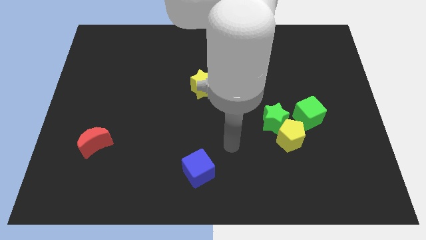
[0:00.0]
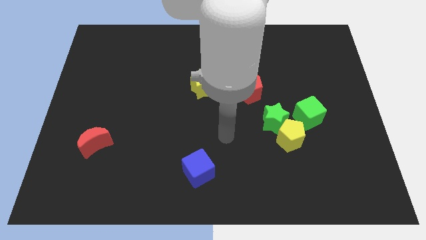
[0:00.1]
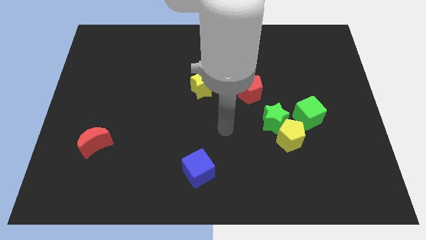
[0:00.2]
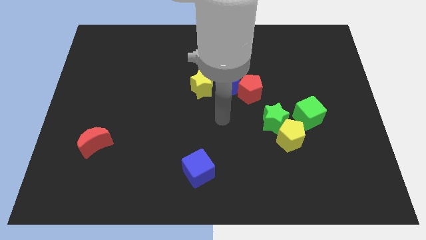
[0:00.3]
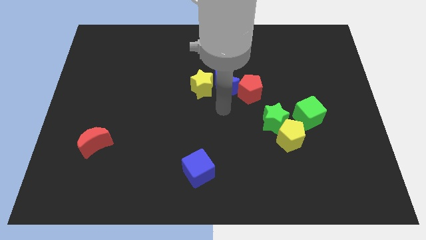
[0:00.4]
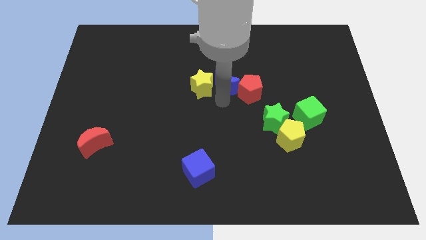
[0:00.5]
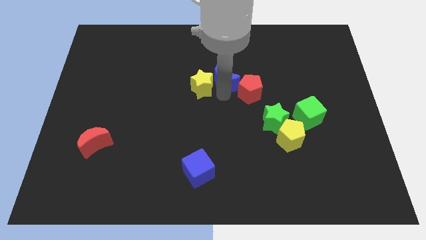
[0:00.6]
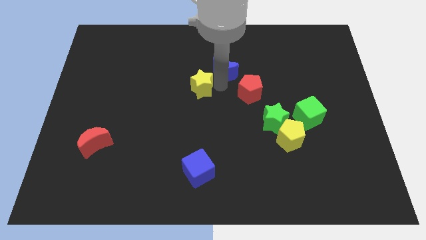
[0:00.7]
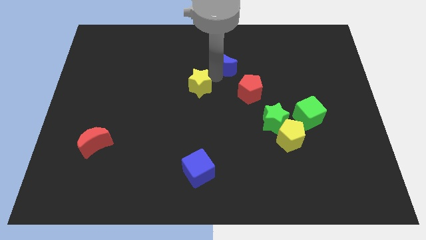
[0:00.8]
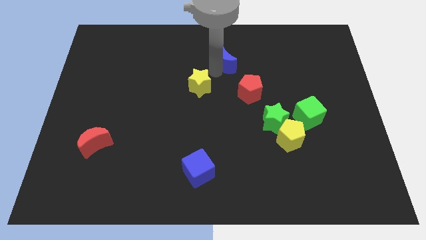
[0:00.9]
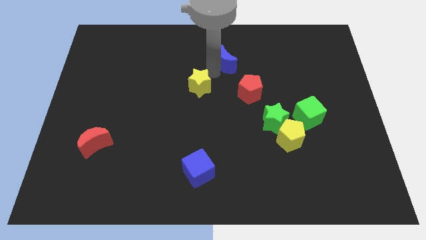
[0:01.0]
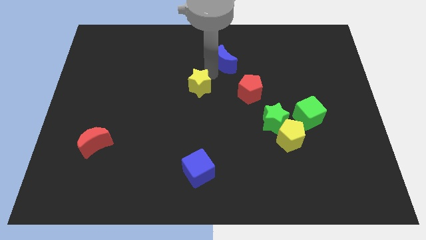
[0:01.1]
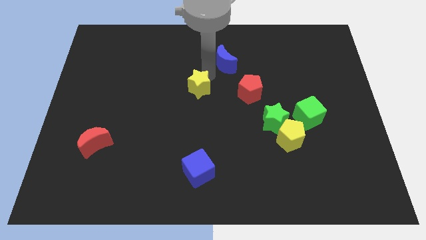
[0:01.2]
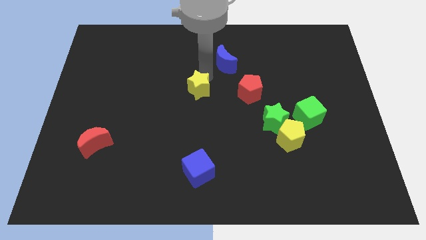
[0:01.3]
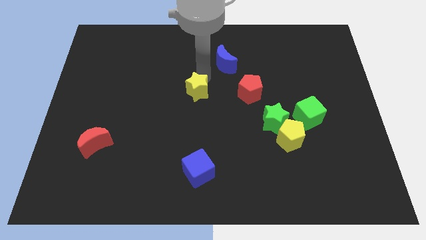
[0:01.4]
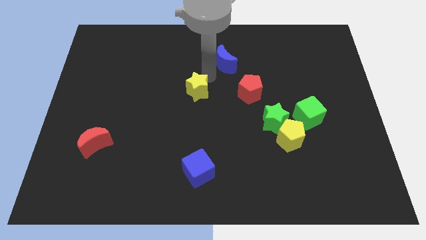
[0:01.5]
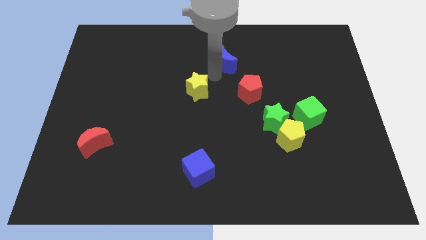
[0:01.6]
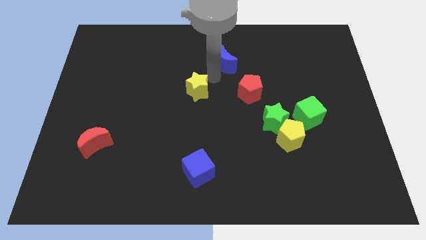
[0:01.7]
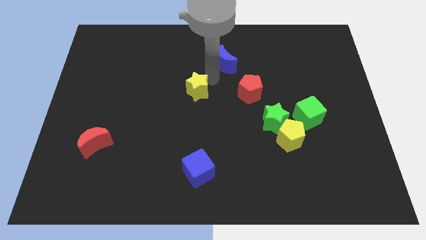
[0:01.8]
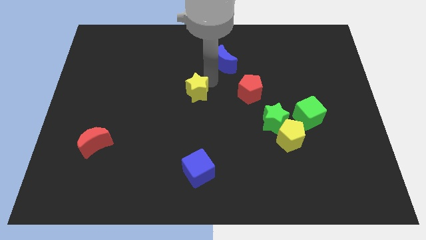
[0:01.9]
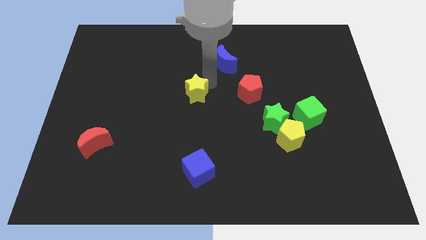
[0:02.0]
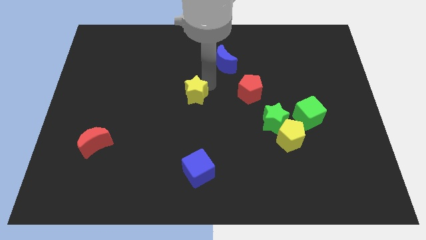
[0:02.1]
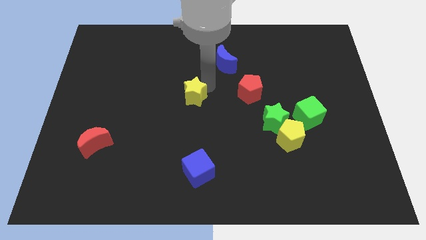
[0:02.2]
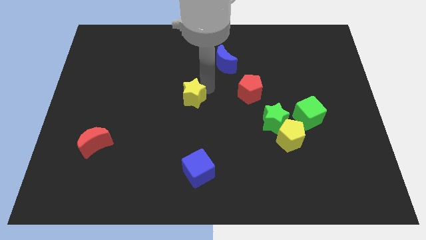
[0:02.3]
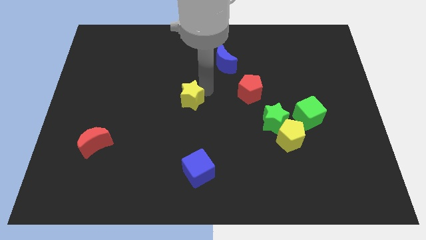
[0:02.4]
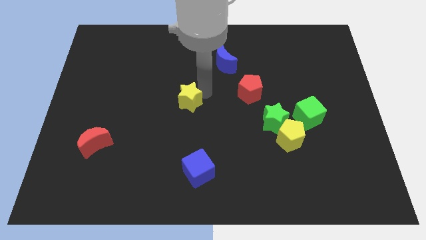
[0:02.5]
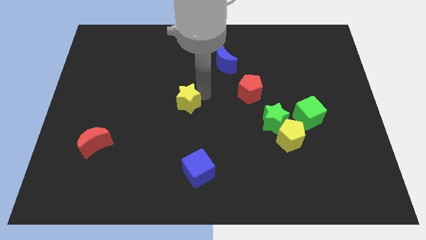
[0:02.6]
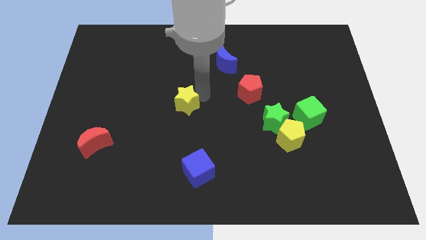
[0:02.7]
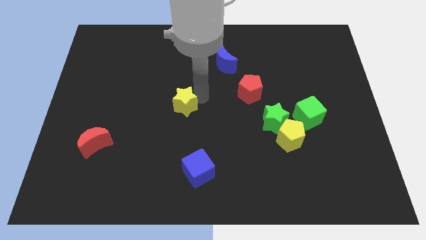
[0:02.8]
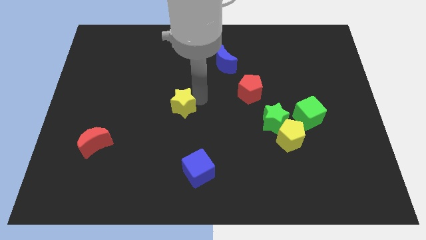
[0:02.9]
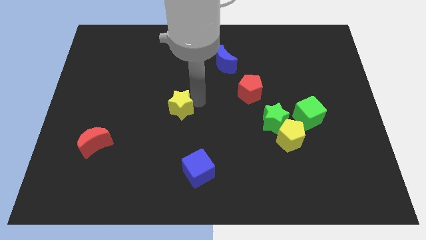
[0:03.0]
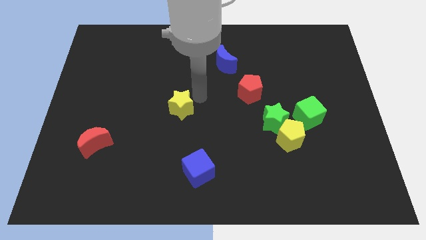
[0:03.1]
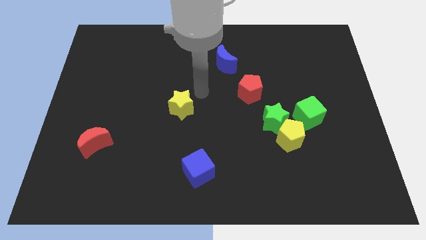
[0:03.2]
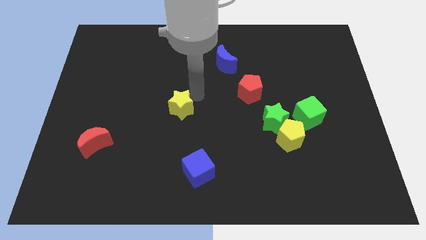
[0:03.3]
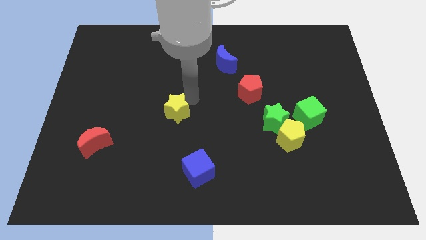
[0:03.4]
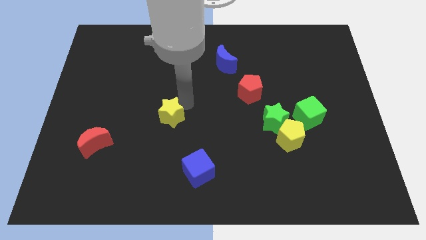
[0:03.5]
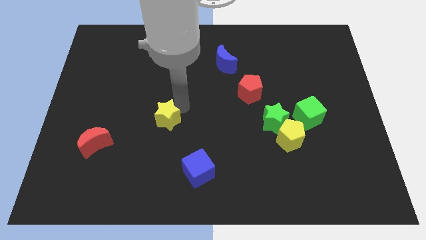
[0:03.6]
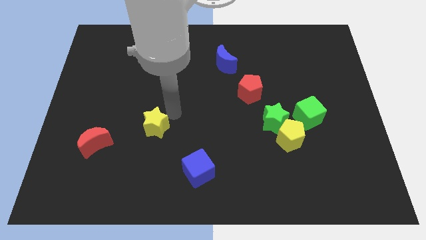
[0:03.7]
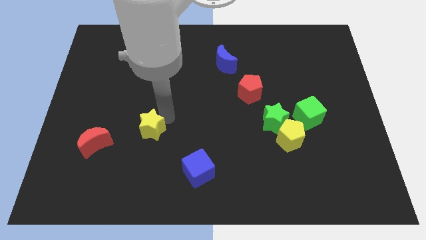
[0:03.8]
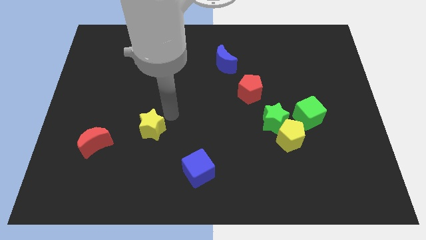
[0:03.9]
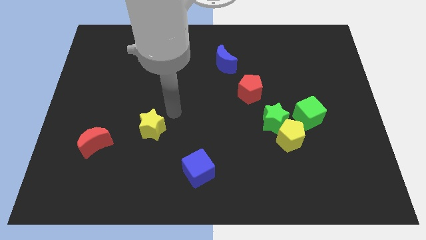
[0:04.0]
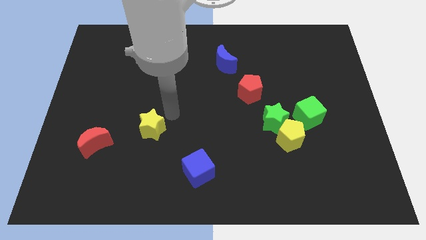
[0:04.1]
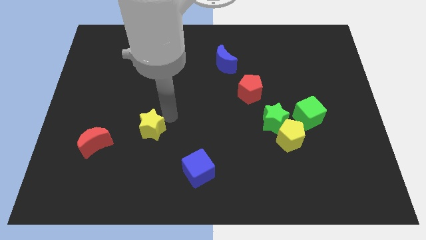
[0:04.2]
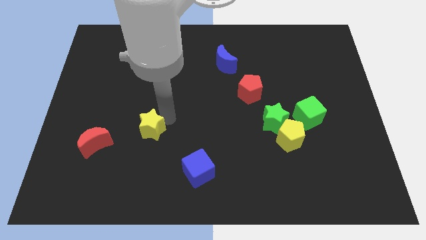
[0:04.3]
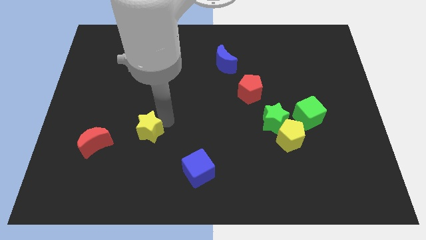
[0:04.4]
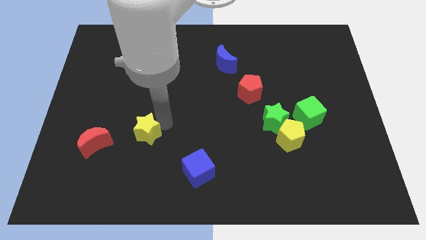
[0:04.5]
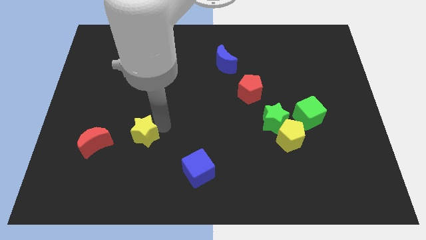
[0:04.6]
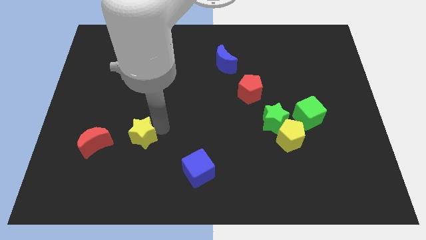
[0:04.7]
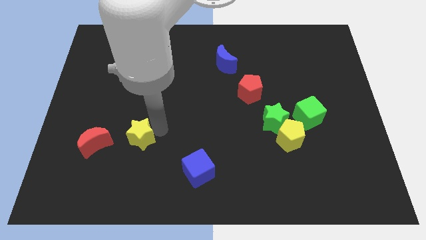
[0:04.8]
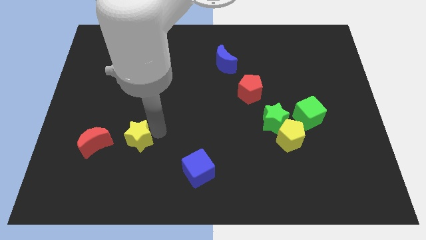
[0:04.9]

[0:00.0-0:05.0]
slide the yellow star down and left

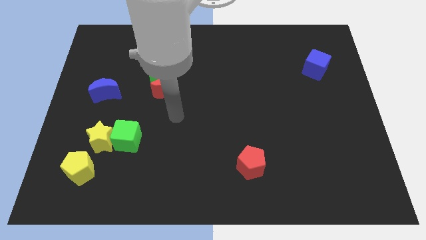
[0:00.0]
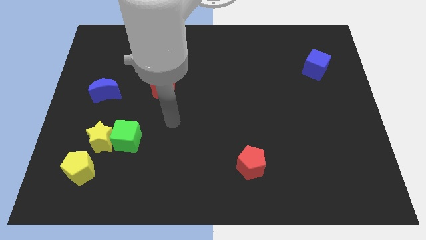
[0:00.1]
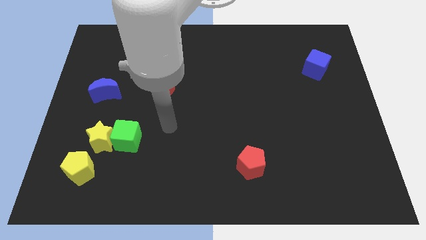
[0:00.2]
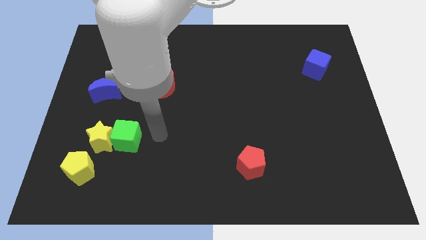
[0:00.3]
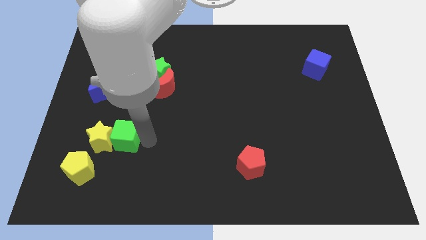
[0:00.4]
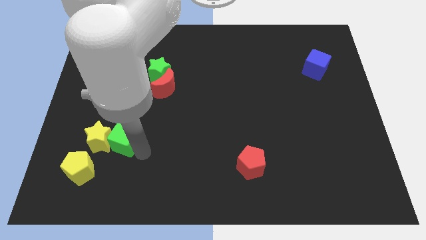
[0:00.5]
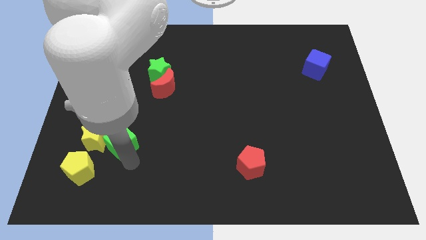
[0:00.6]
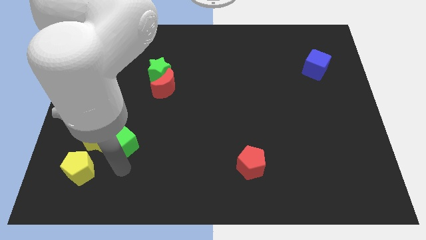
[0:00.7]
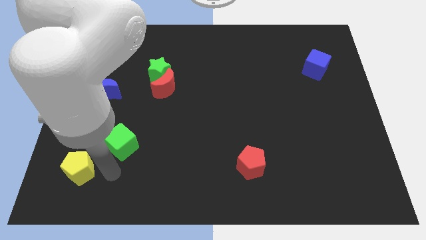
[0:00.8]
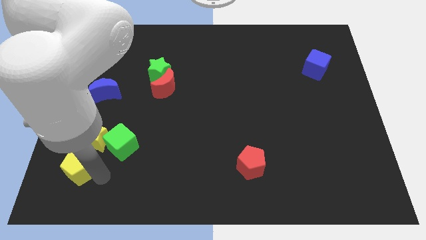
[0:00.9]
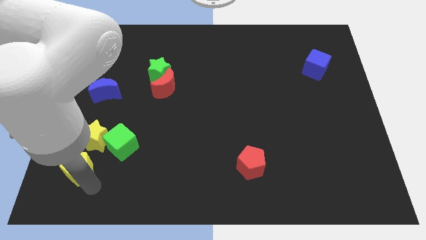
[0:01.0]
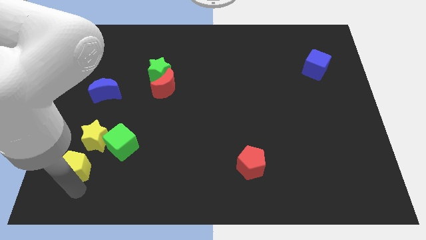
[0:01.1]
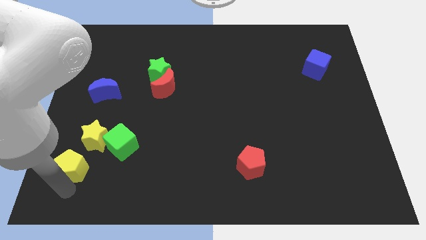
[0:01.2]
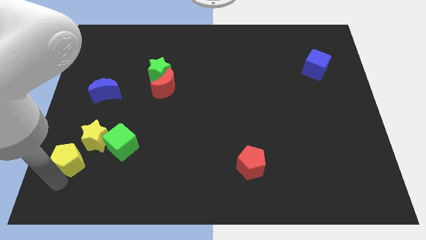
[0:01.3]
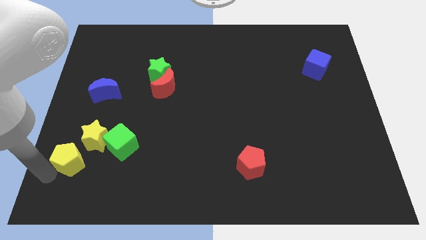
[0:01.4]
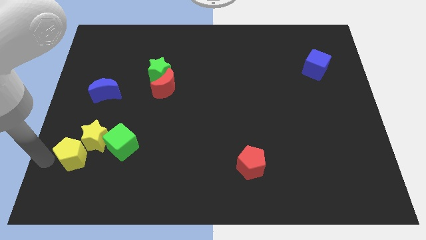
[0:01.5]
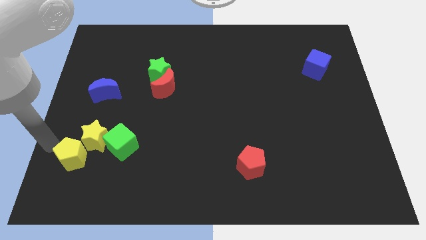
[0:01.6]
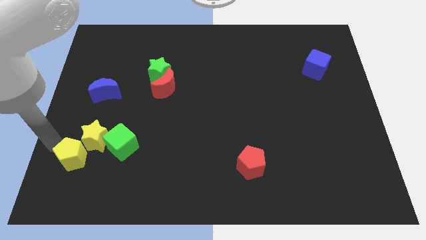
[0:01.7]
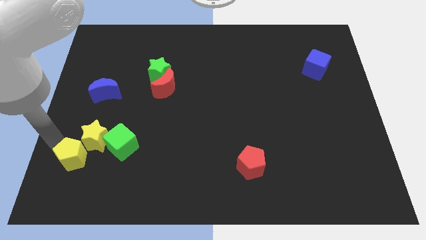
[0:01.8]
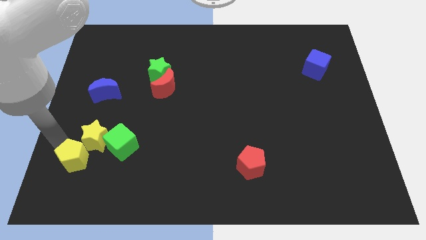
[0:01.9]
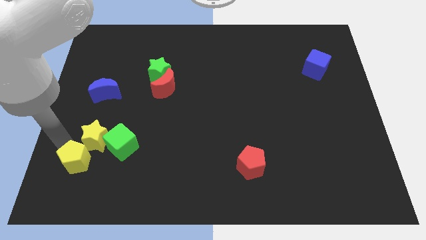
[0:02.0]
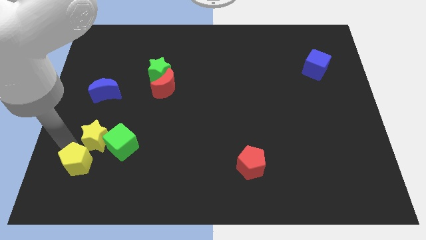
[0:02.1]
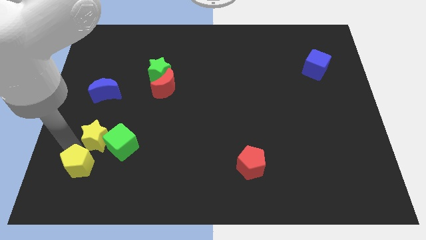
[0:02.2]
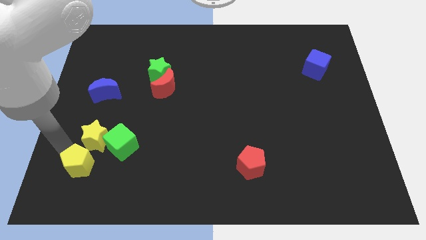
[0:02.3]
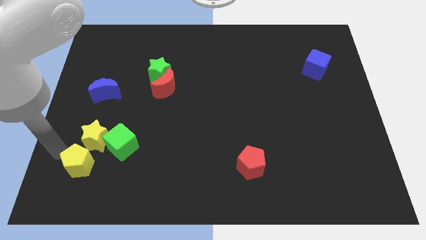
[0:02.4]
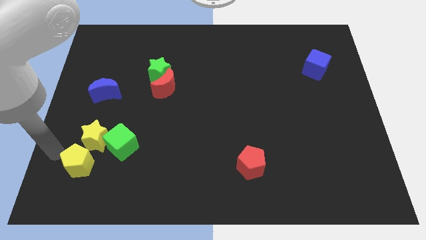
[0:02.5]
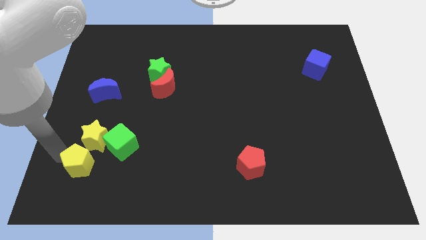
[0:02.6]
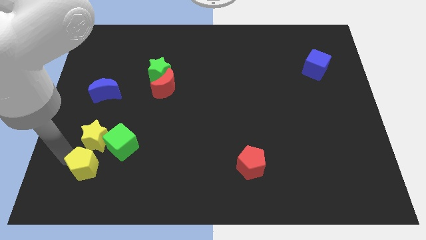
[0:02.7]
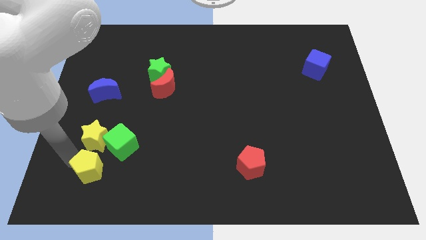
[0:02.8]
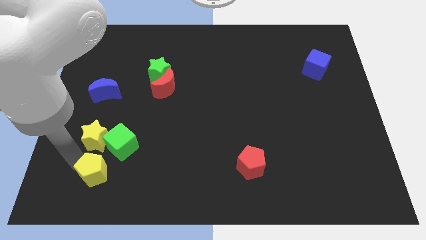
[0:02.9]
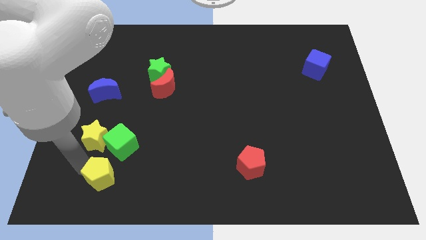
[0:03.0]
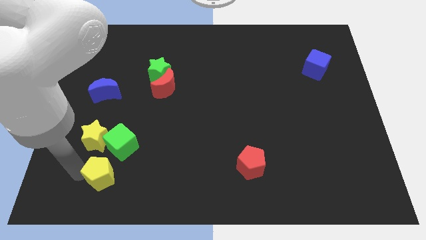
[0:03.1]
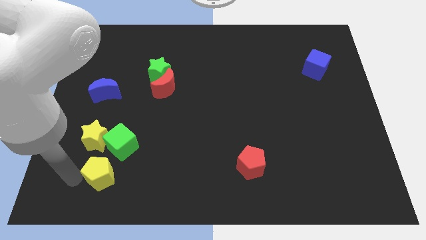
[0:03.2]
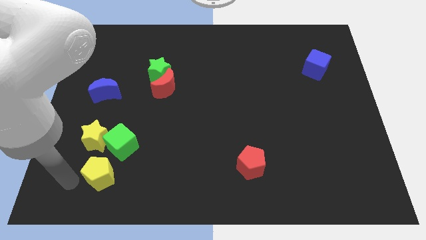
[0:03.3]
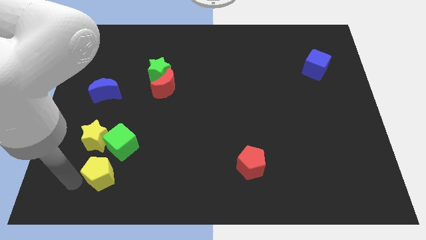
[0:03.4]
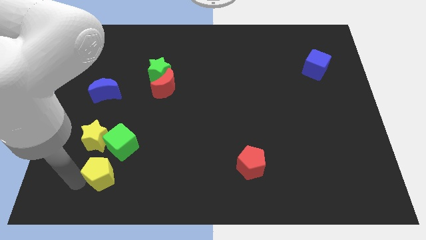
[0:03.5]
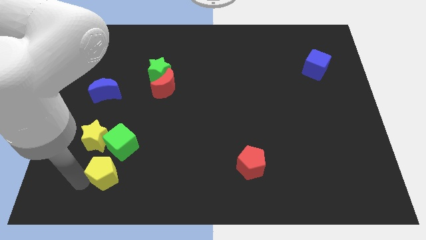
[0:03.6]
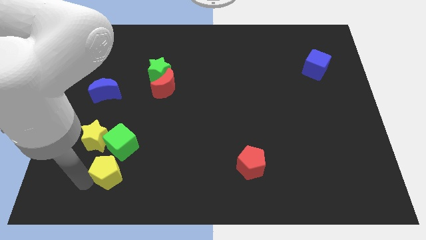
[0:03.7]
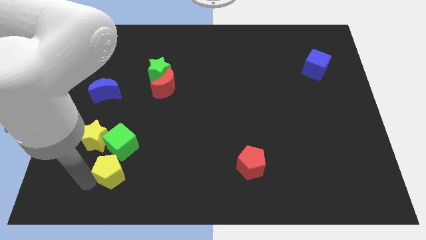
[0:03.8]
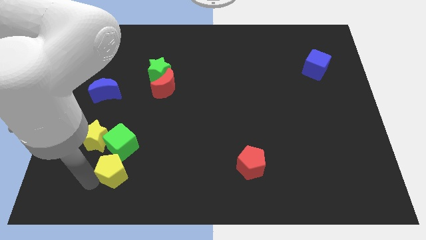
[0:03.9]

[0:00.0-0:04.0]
slightly push the yellow pentagon to the right
